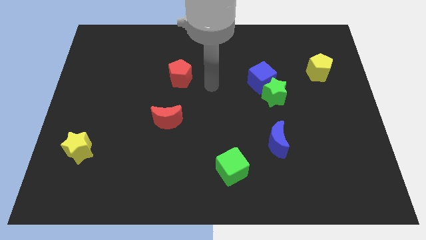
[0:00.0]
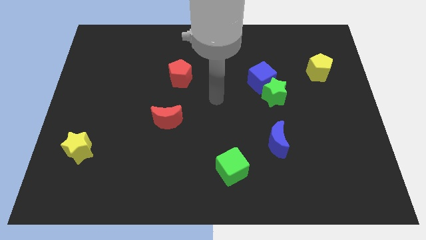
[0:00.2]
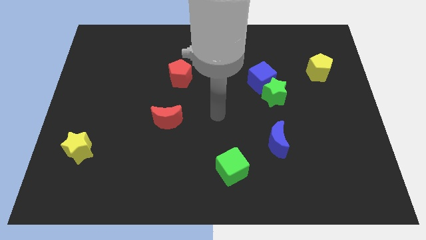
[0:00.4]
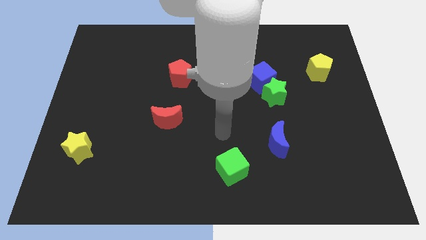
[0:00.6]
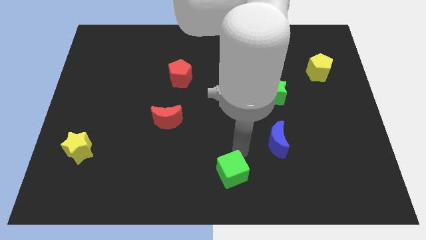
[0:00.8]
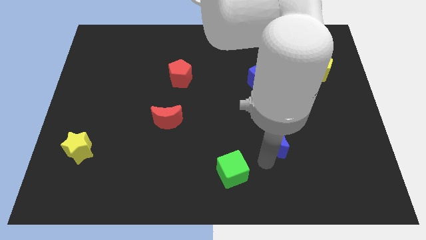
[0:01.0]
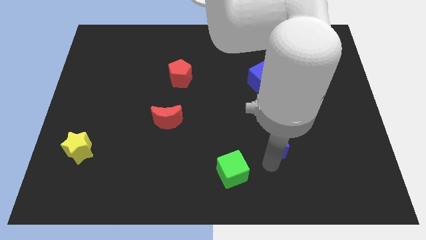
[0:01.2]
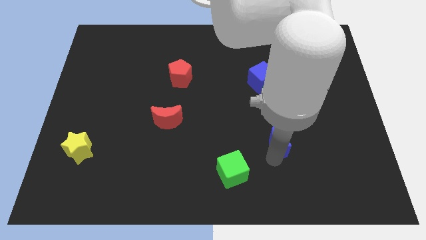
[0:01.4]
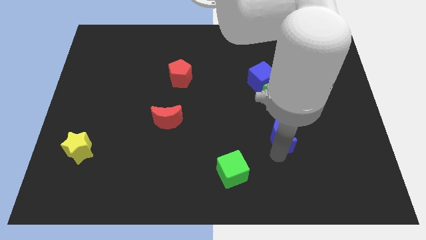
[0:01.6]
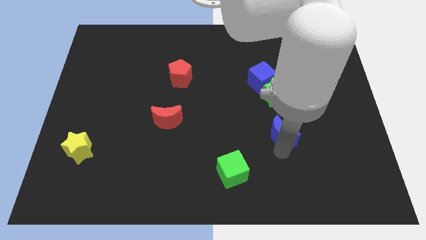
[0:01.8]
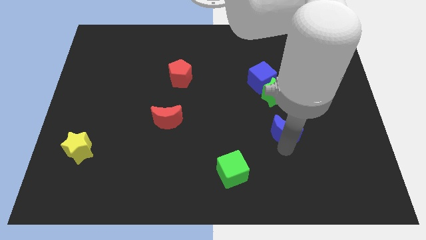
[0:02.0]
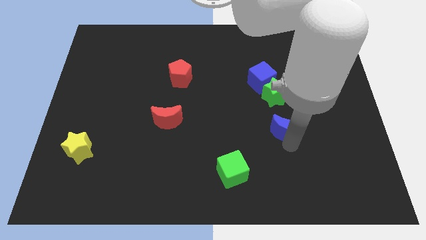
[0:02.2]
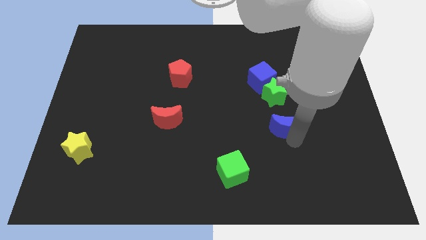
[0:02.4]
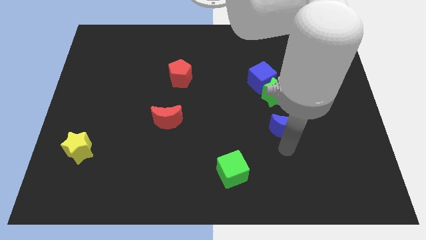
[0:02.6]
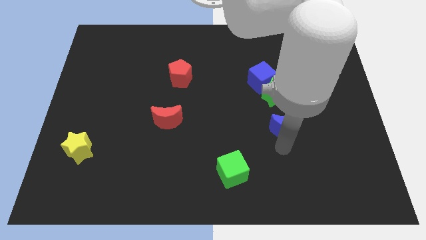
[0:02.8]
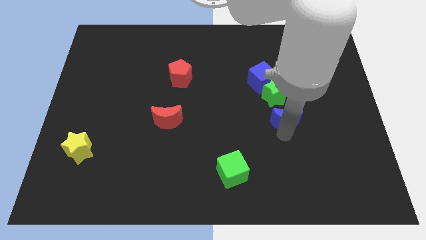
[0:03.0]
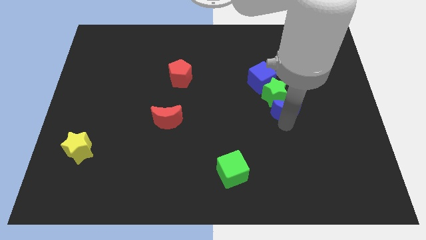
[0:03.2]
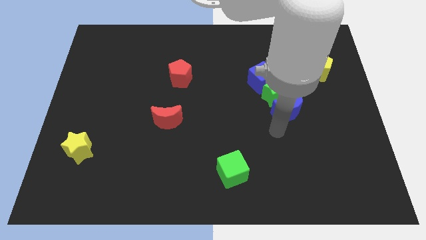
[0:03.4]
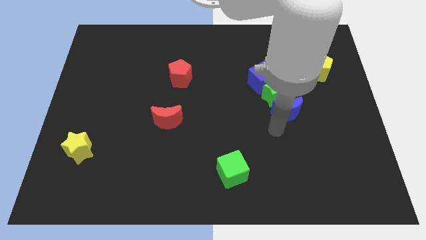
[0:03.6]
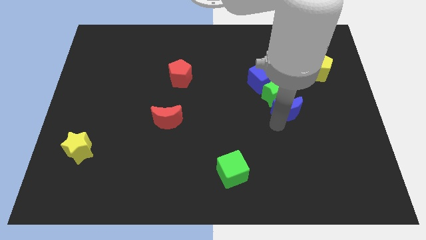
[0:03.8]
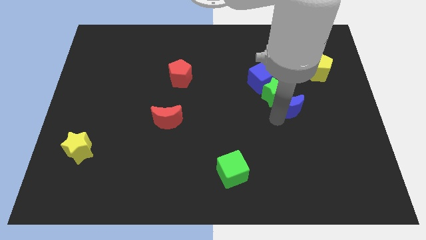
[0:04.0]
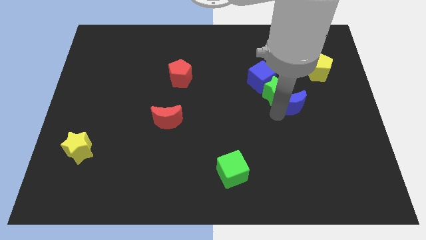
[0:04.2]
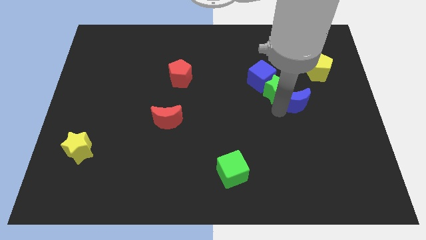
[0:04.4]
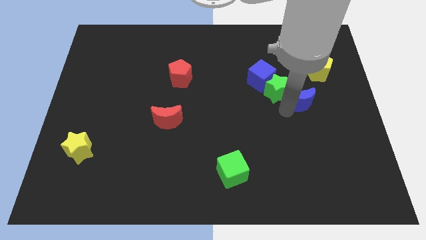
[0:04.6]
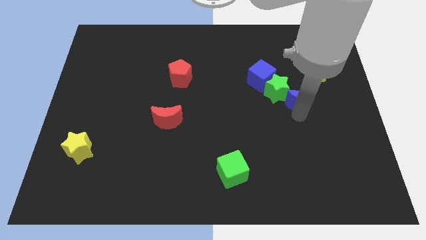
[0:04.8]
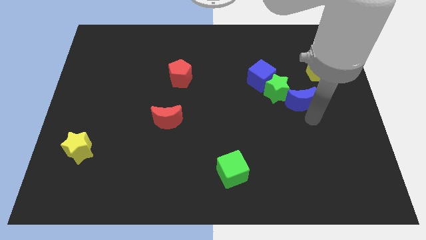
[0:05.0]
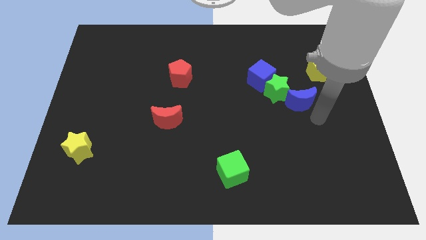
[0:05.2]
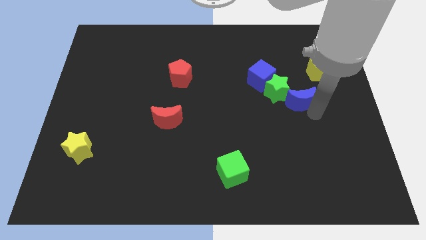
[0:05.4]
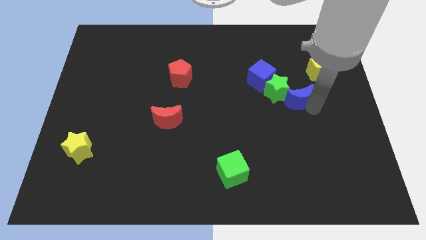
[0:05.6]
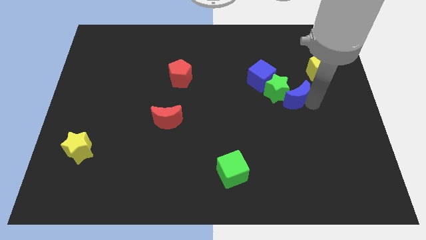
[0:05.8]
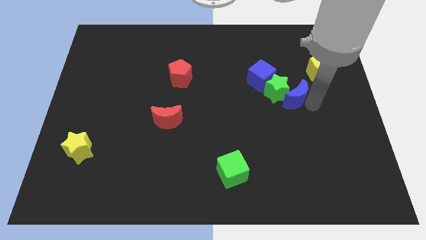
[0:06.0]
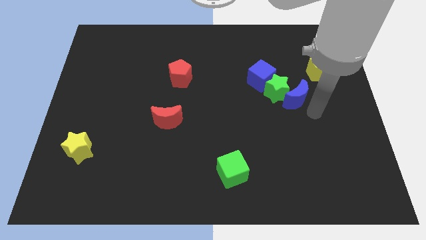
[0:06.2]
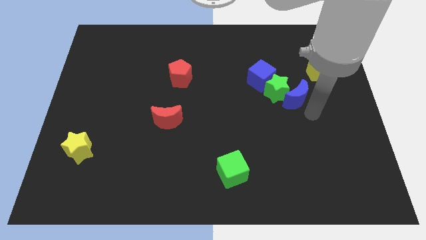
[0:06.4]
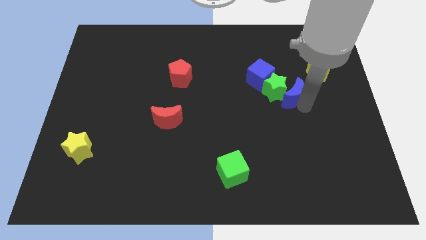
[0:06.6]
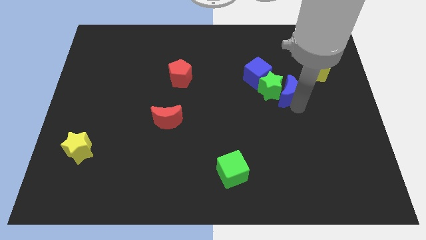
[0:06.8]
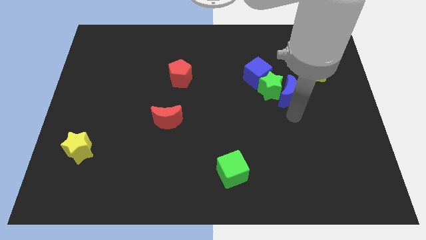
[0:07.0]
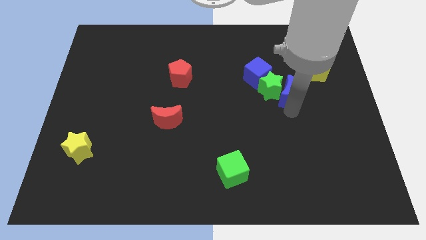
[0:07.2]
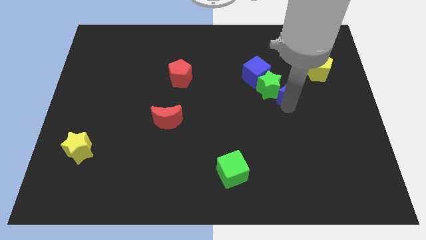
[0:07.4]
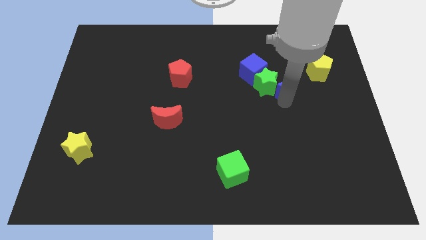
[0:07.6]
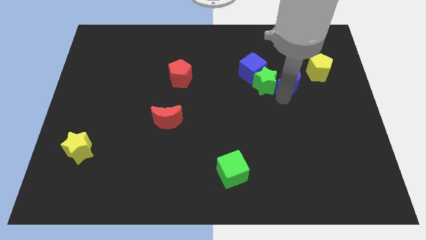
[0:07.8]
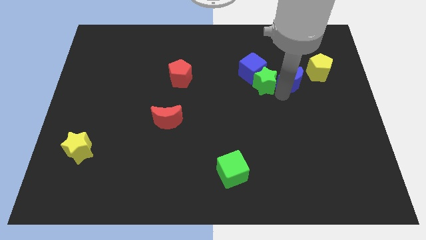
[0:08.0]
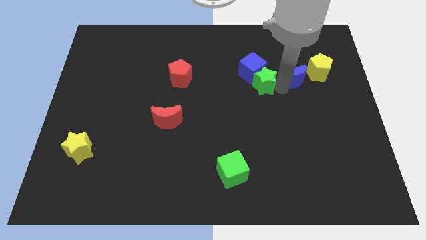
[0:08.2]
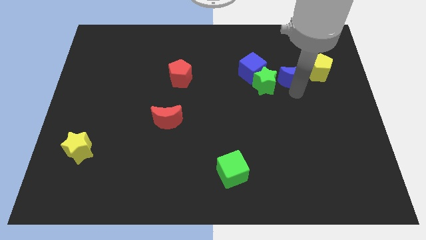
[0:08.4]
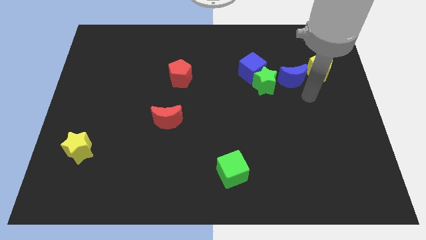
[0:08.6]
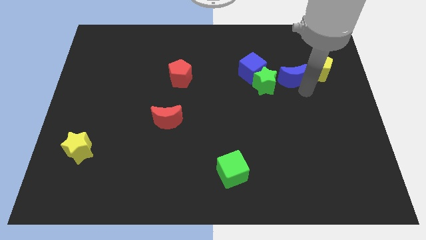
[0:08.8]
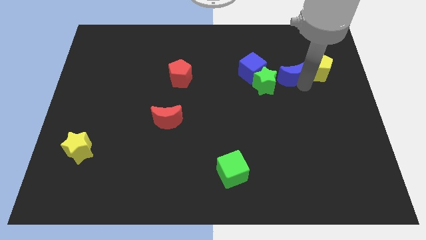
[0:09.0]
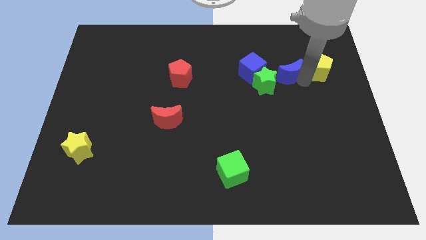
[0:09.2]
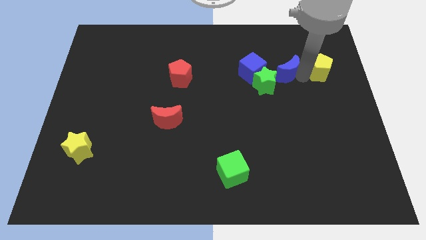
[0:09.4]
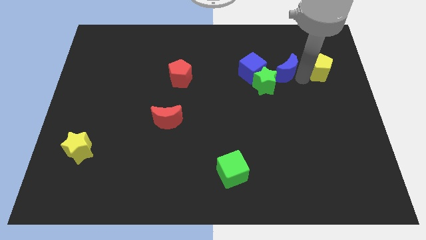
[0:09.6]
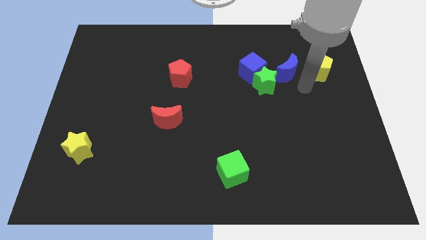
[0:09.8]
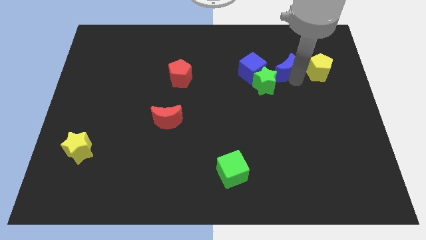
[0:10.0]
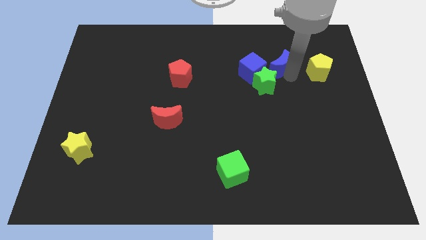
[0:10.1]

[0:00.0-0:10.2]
move the blue moon to the top right side of the blue cube

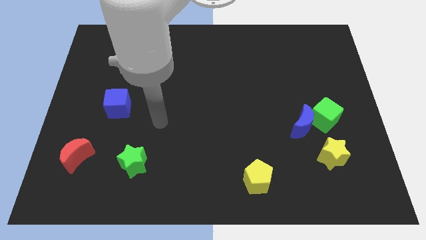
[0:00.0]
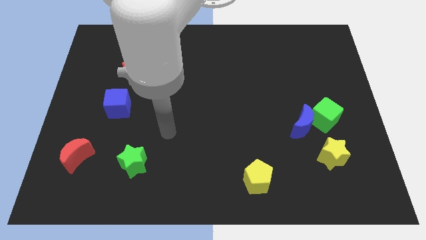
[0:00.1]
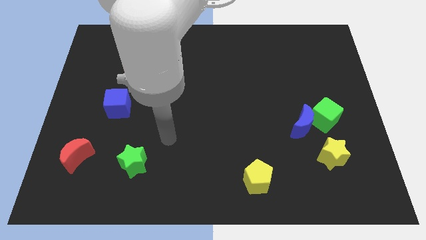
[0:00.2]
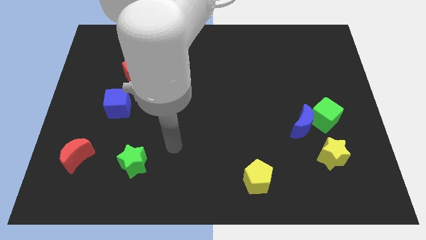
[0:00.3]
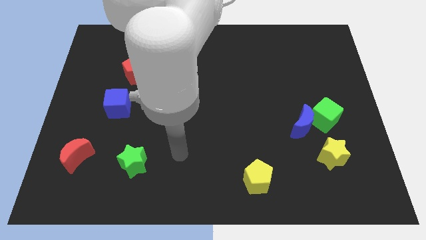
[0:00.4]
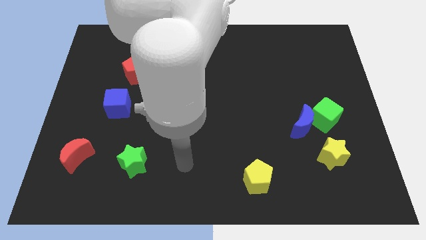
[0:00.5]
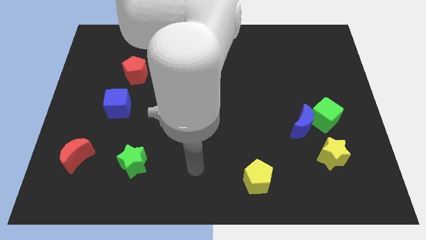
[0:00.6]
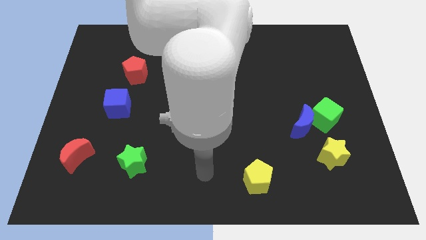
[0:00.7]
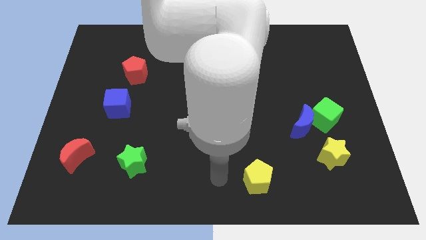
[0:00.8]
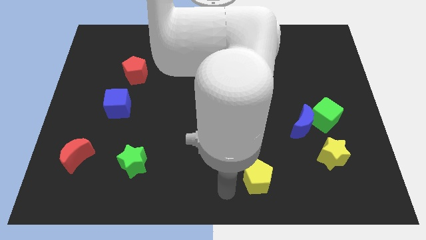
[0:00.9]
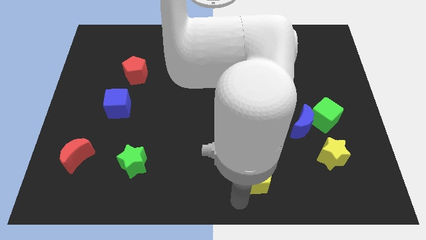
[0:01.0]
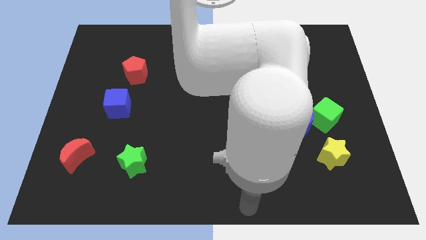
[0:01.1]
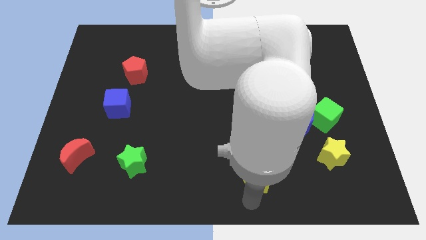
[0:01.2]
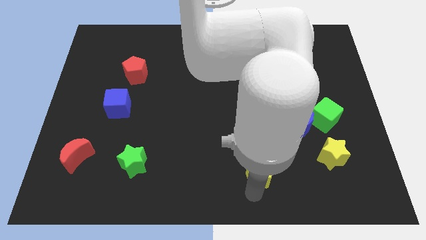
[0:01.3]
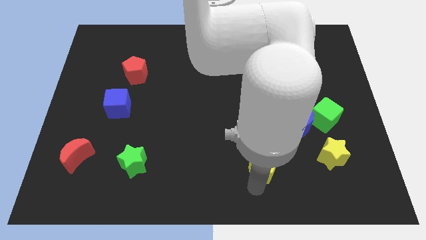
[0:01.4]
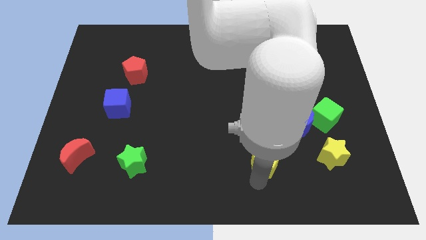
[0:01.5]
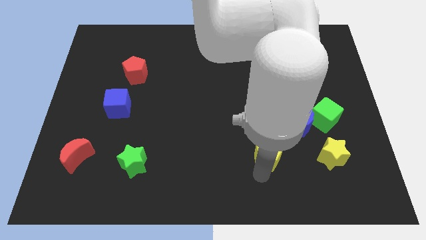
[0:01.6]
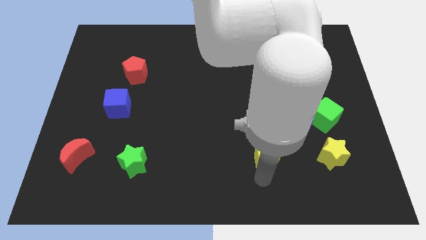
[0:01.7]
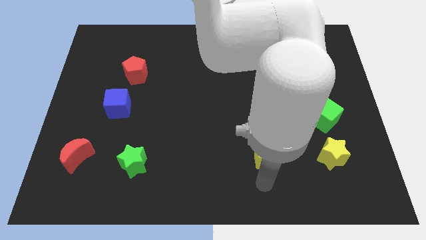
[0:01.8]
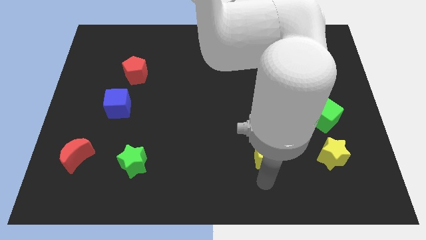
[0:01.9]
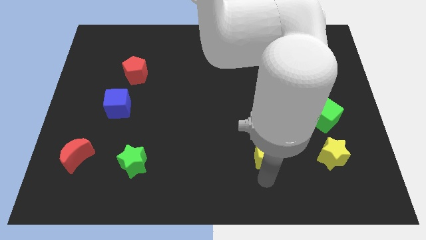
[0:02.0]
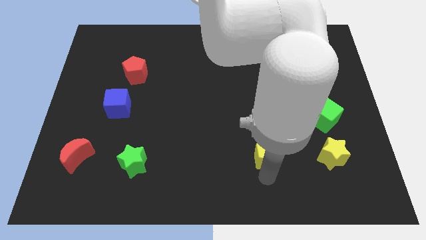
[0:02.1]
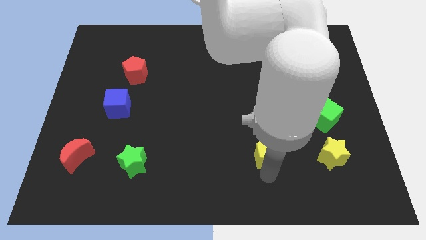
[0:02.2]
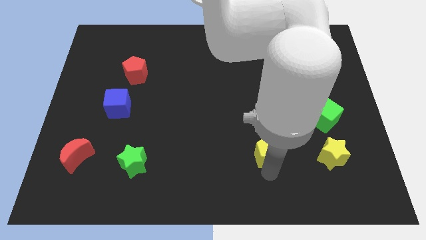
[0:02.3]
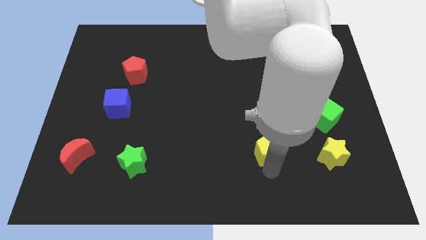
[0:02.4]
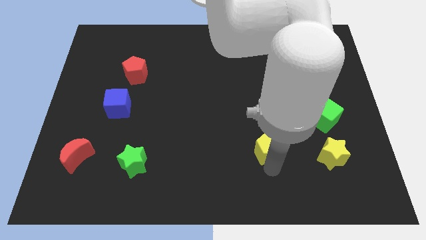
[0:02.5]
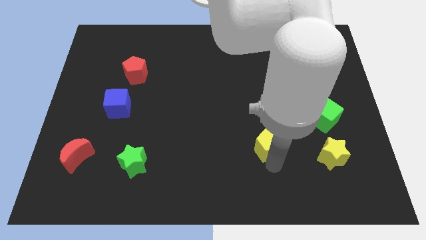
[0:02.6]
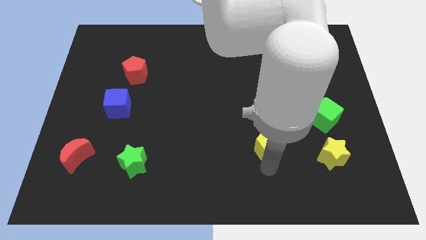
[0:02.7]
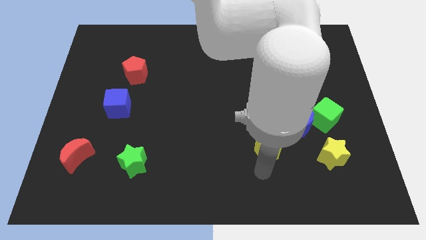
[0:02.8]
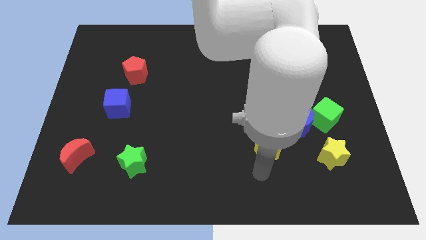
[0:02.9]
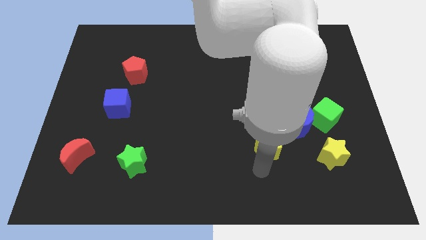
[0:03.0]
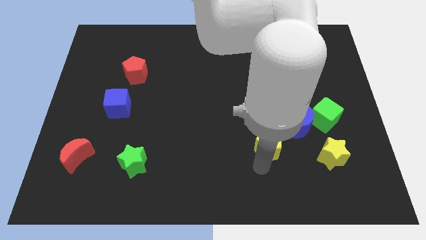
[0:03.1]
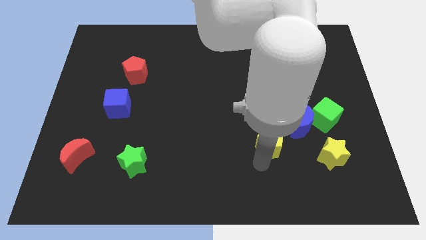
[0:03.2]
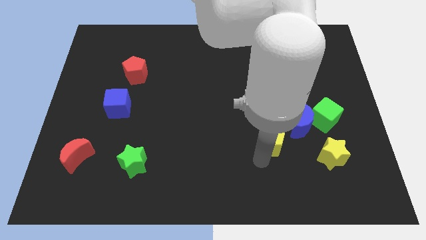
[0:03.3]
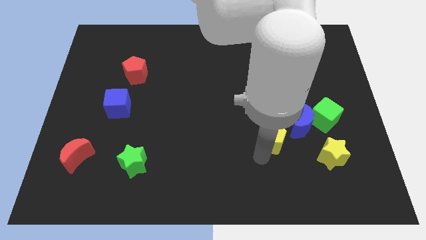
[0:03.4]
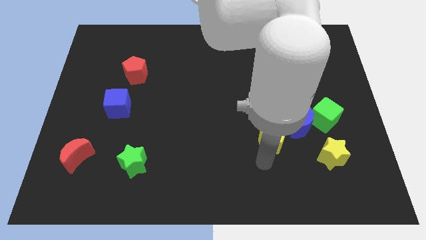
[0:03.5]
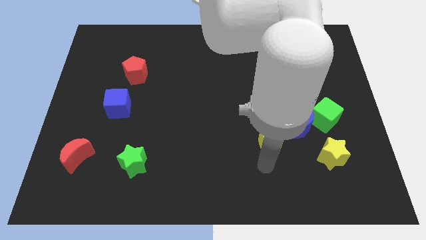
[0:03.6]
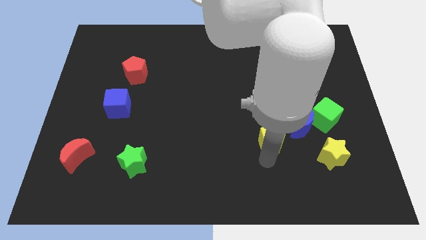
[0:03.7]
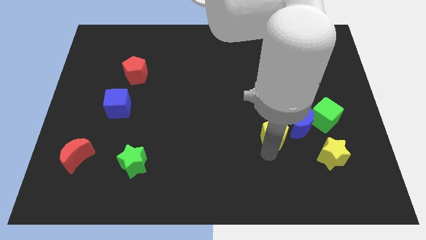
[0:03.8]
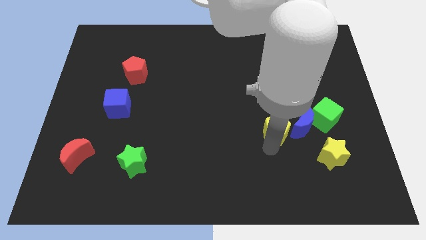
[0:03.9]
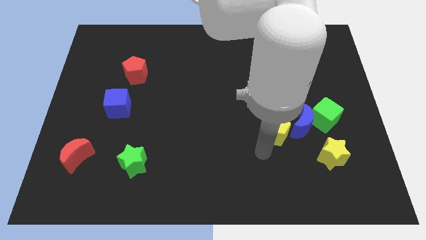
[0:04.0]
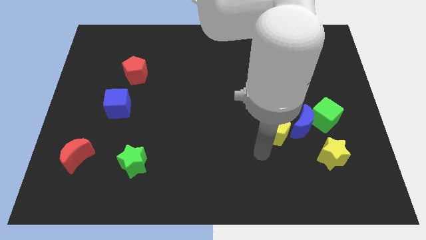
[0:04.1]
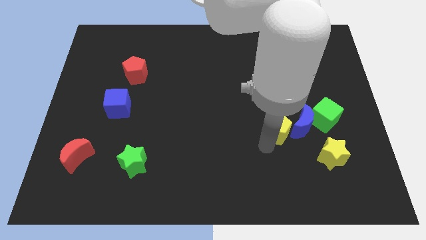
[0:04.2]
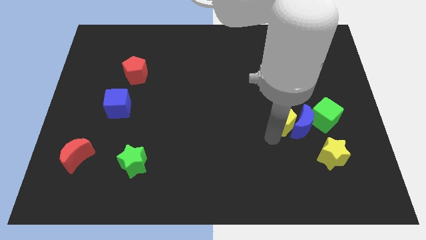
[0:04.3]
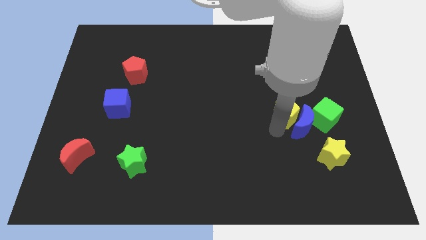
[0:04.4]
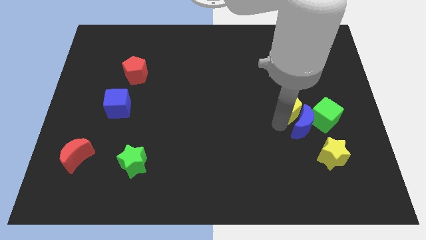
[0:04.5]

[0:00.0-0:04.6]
move the yellow pentagon to the top left side of the green cube
